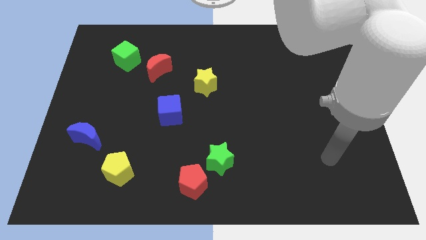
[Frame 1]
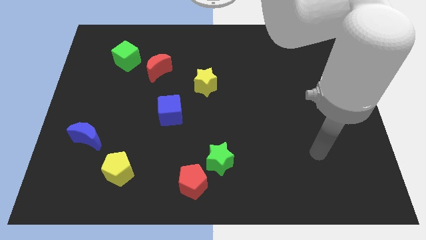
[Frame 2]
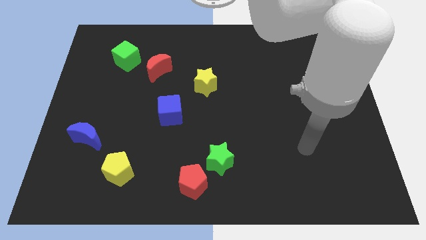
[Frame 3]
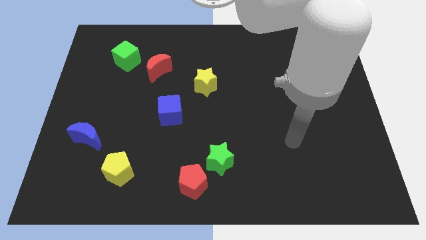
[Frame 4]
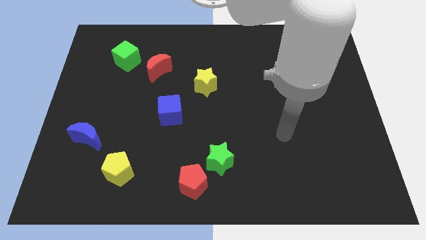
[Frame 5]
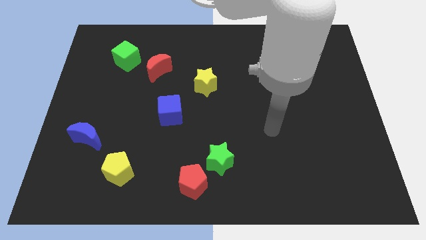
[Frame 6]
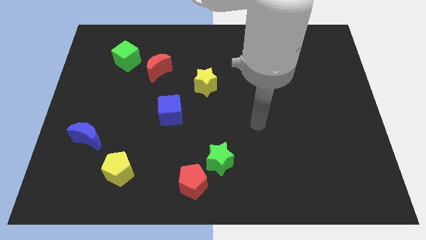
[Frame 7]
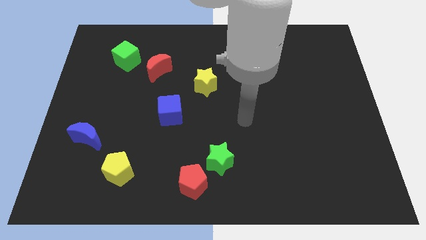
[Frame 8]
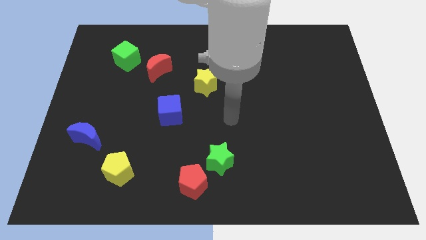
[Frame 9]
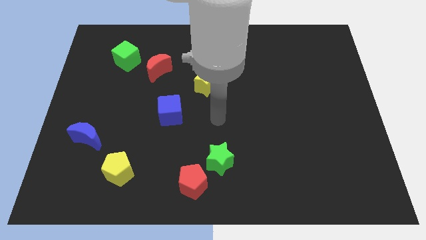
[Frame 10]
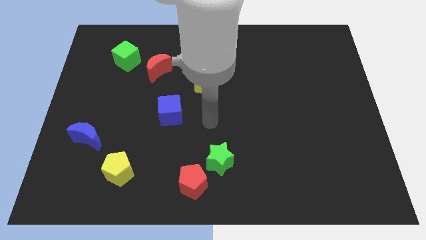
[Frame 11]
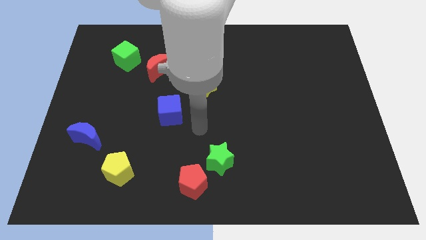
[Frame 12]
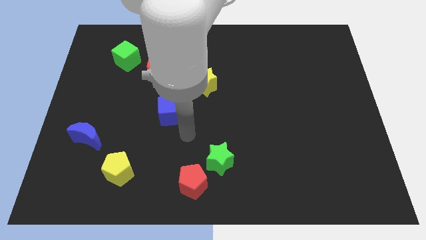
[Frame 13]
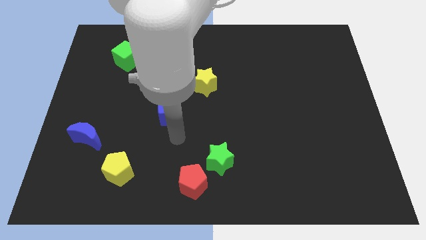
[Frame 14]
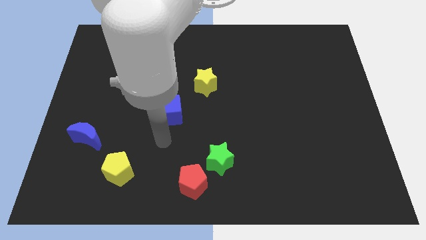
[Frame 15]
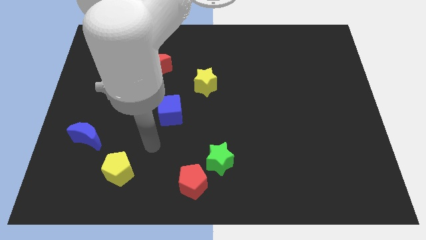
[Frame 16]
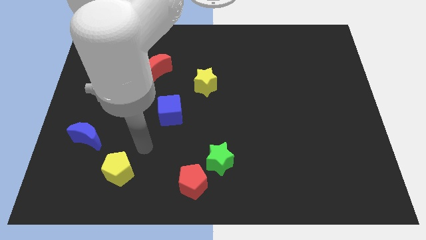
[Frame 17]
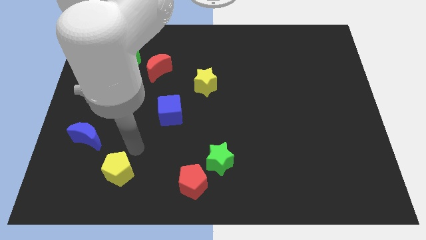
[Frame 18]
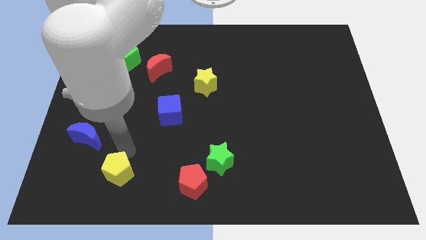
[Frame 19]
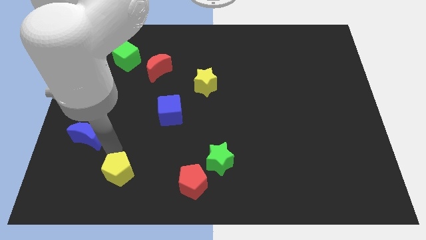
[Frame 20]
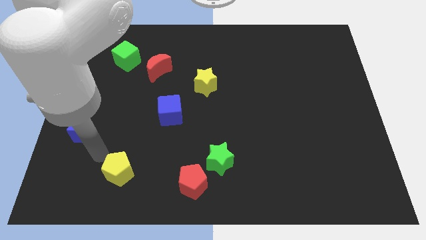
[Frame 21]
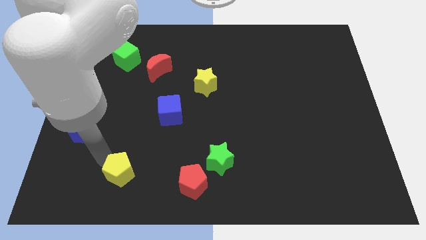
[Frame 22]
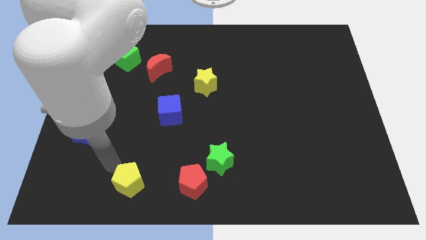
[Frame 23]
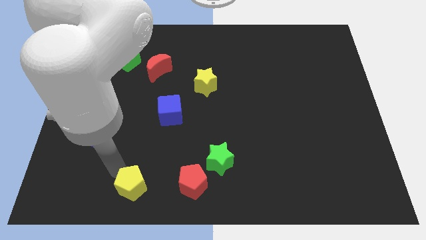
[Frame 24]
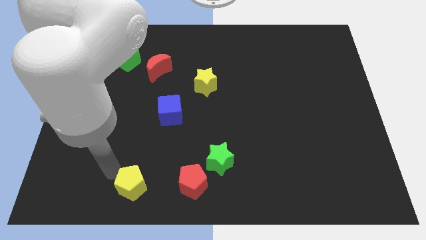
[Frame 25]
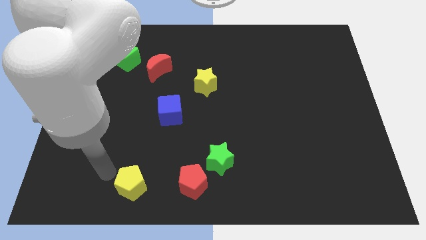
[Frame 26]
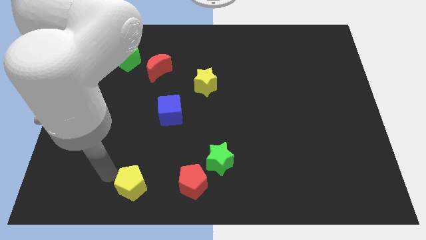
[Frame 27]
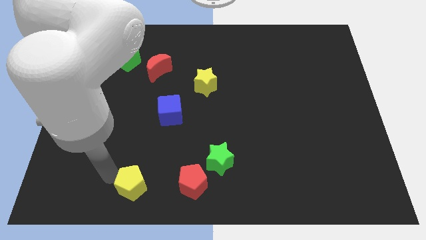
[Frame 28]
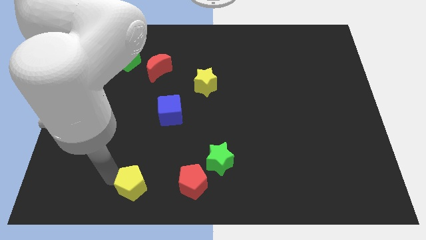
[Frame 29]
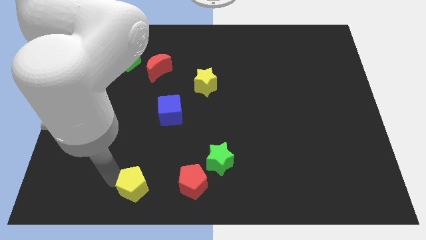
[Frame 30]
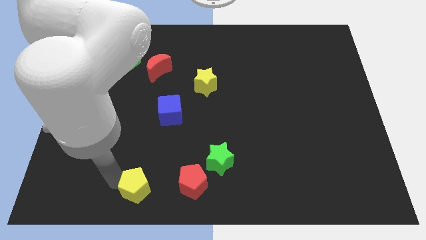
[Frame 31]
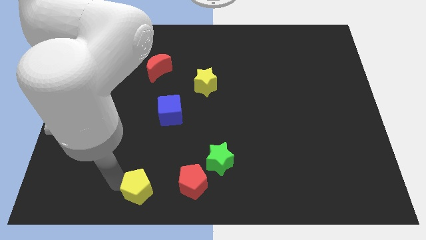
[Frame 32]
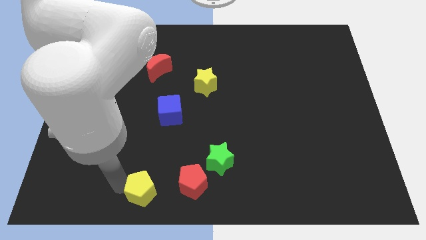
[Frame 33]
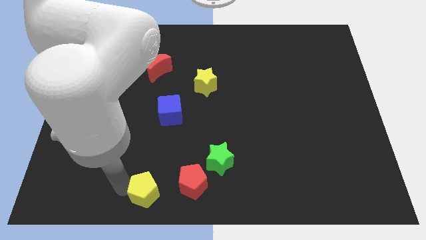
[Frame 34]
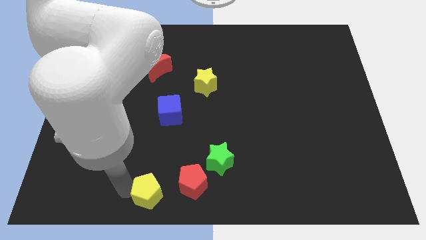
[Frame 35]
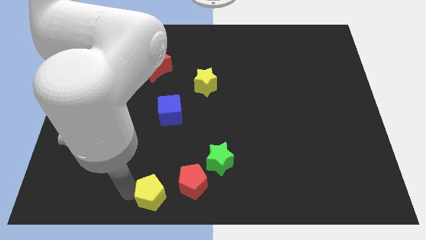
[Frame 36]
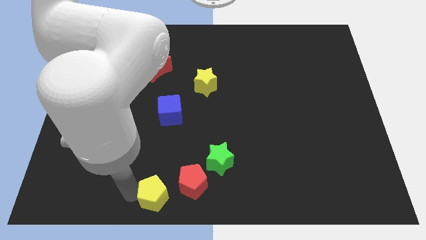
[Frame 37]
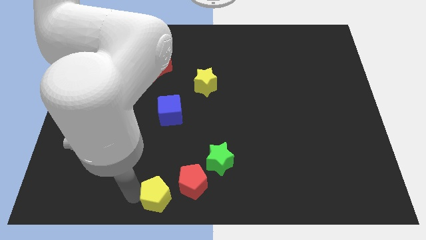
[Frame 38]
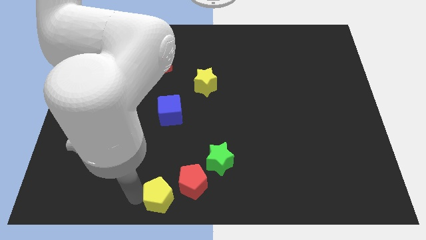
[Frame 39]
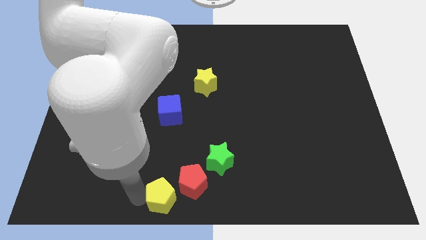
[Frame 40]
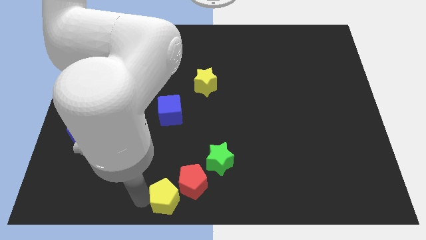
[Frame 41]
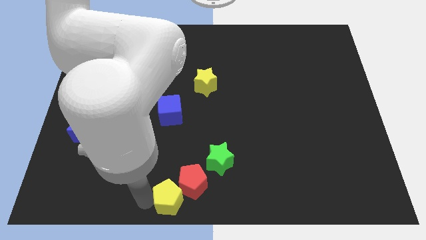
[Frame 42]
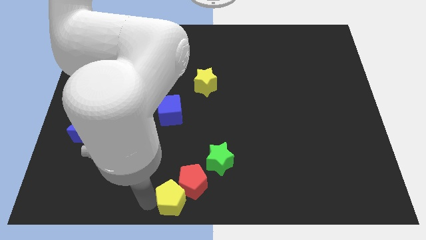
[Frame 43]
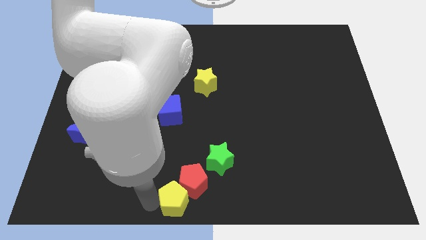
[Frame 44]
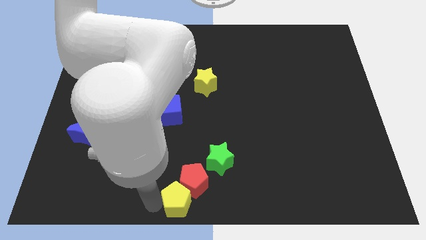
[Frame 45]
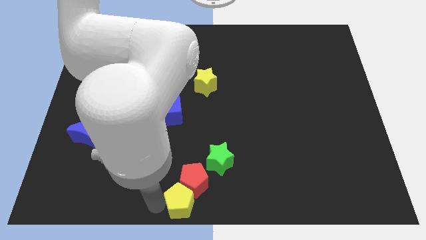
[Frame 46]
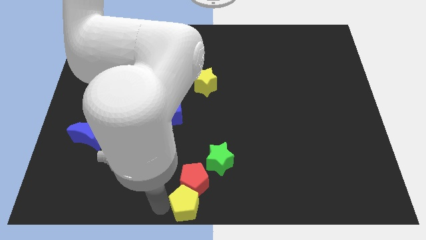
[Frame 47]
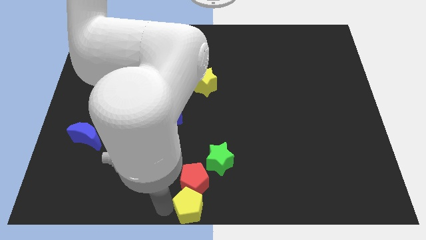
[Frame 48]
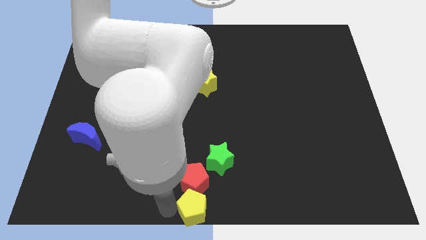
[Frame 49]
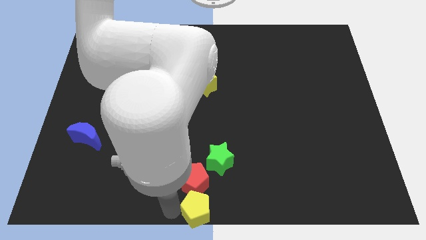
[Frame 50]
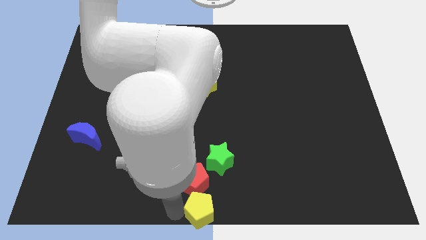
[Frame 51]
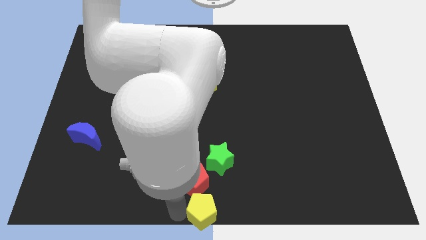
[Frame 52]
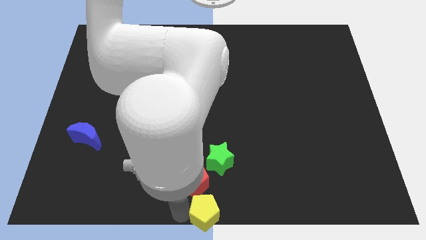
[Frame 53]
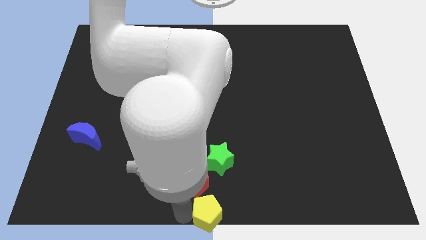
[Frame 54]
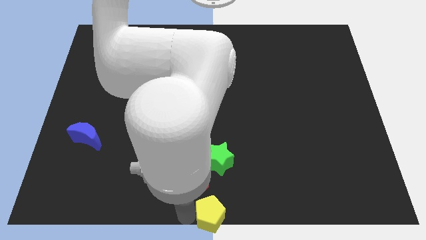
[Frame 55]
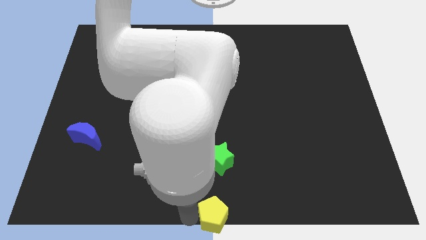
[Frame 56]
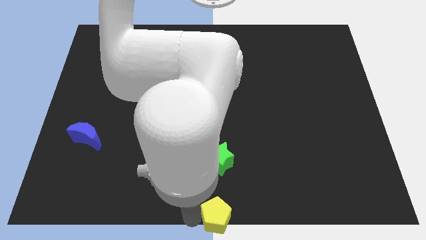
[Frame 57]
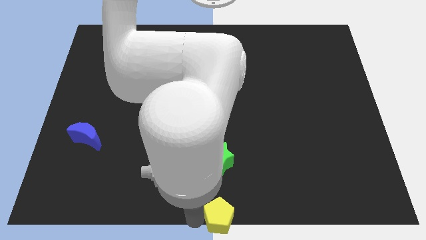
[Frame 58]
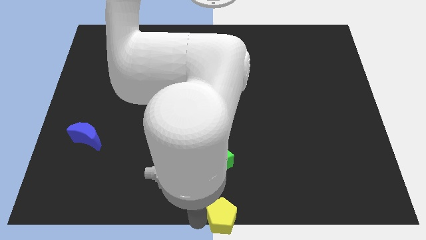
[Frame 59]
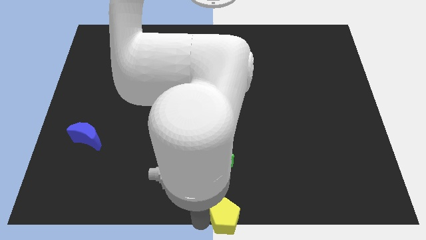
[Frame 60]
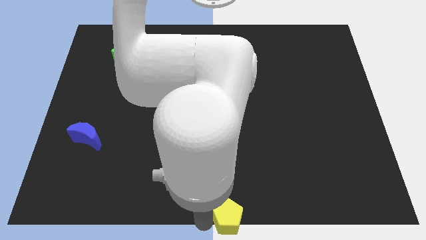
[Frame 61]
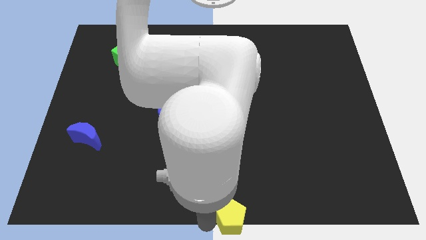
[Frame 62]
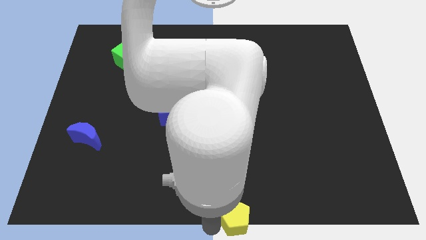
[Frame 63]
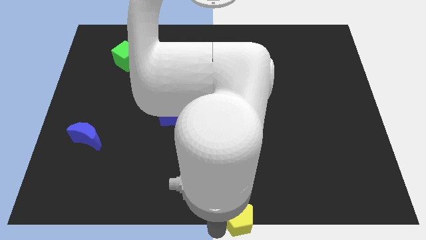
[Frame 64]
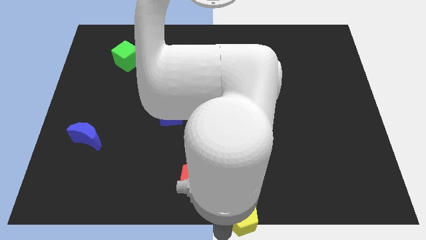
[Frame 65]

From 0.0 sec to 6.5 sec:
move the yellow pentagon right

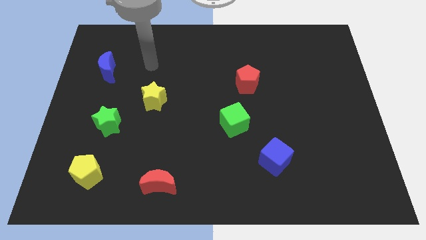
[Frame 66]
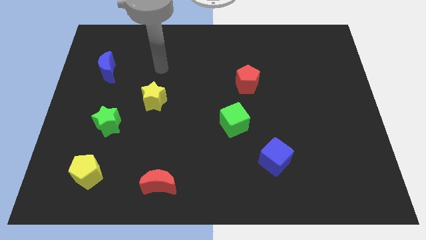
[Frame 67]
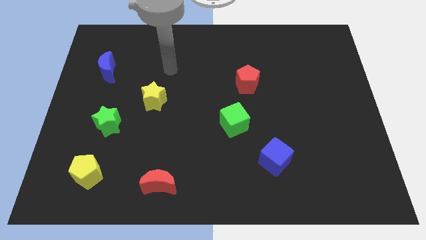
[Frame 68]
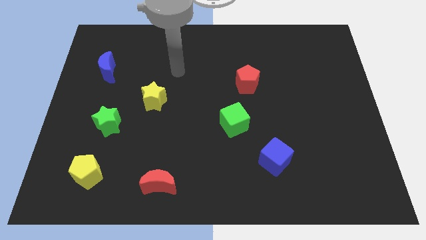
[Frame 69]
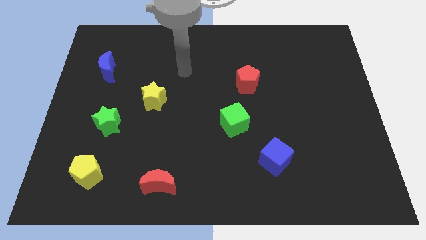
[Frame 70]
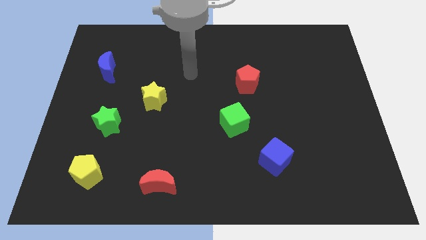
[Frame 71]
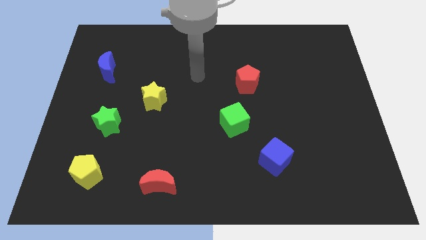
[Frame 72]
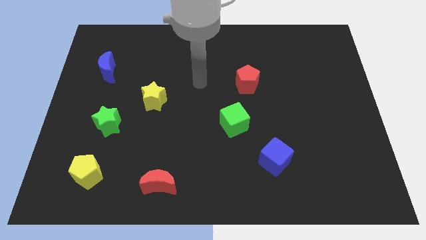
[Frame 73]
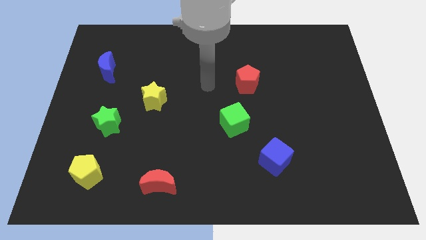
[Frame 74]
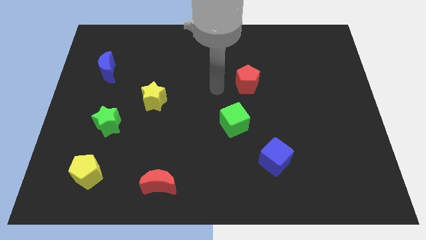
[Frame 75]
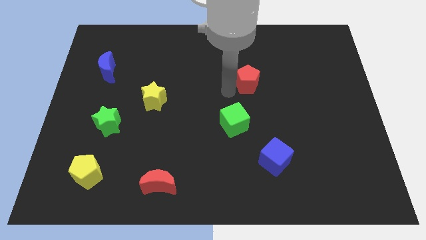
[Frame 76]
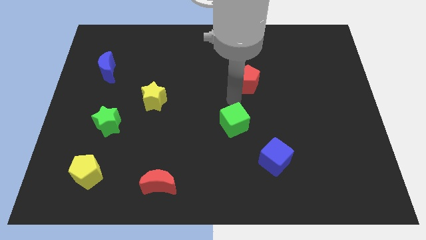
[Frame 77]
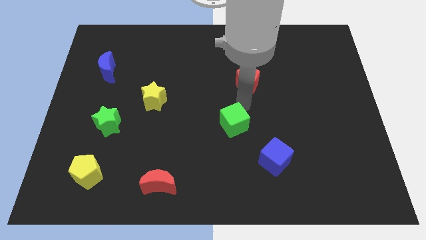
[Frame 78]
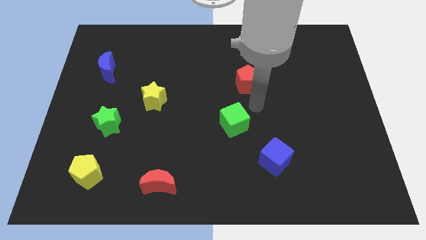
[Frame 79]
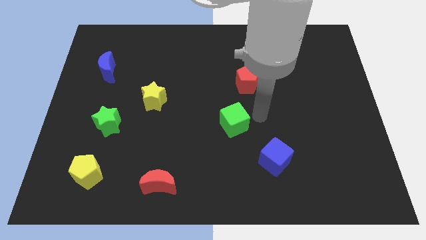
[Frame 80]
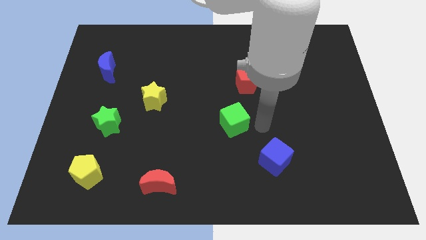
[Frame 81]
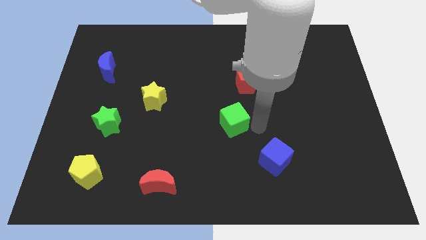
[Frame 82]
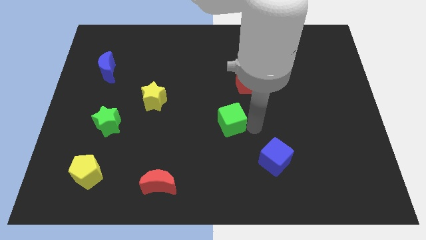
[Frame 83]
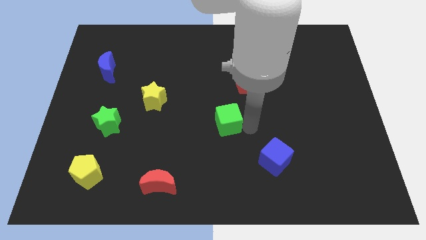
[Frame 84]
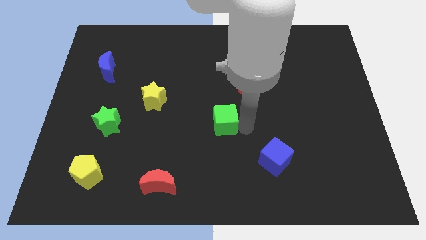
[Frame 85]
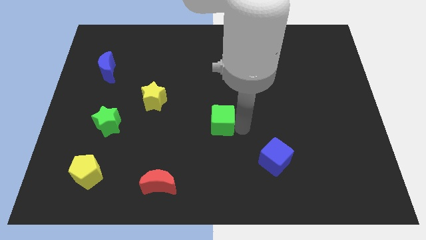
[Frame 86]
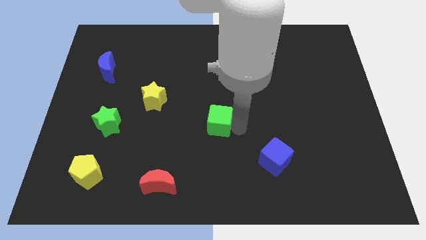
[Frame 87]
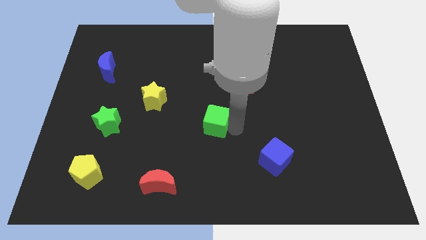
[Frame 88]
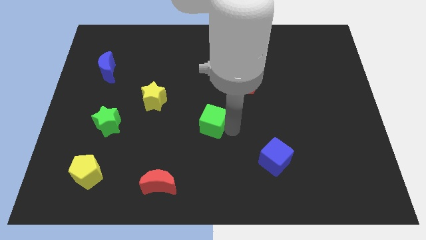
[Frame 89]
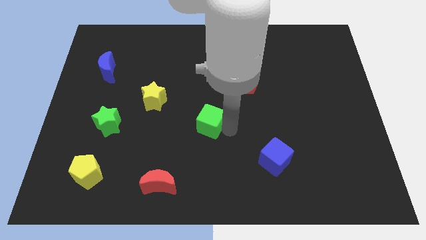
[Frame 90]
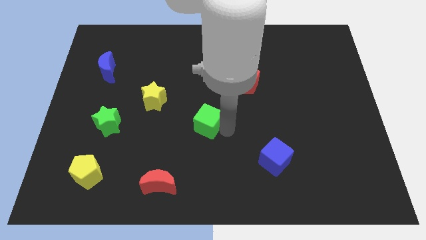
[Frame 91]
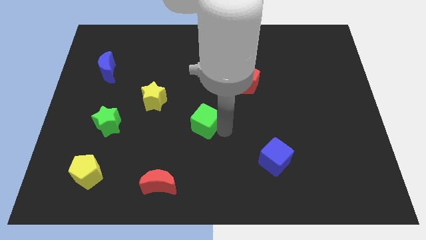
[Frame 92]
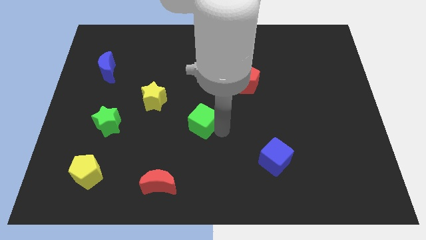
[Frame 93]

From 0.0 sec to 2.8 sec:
move the green cube to the left a little
